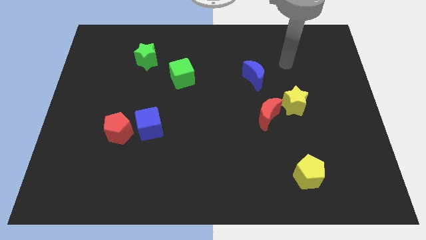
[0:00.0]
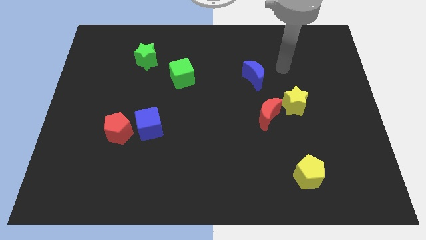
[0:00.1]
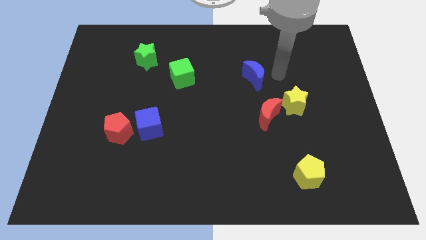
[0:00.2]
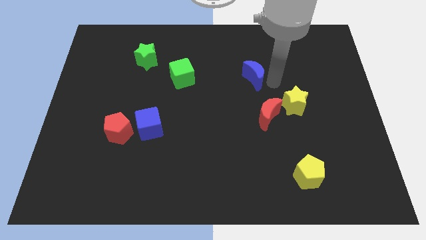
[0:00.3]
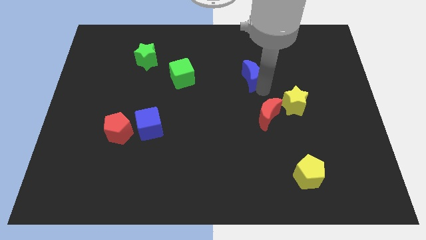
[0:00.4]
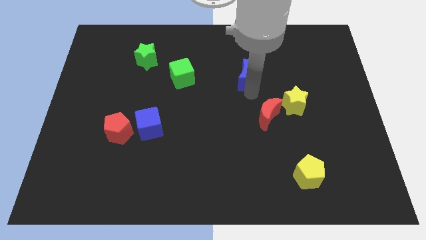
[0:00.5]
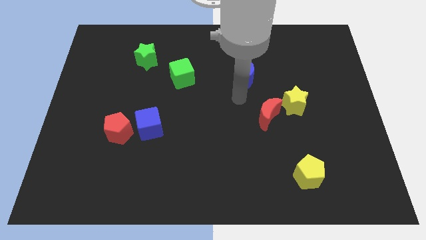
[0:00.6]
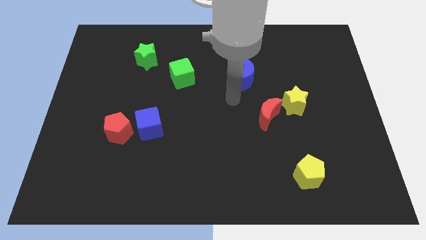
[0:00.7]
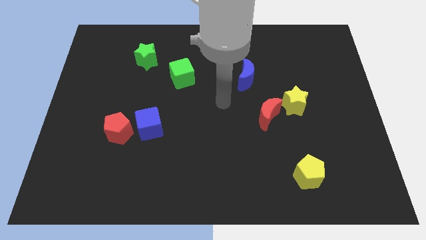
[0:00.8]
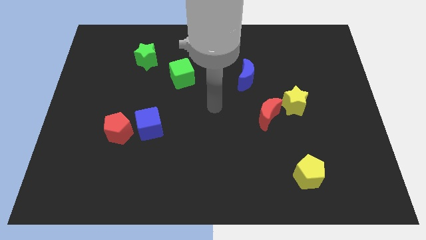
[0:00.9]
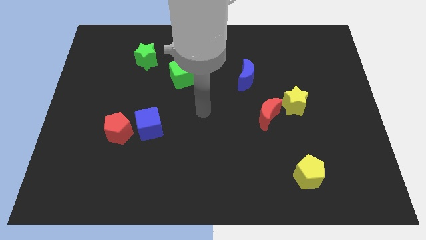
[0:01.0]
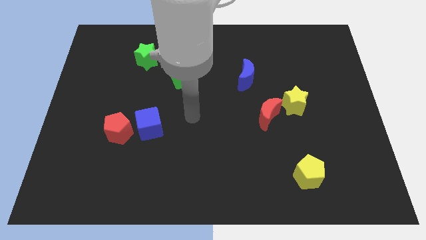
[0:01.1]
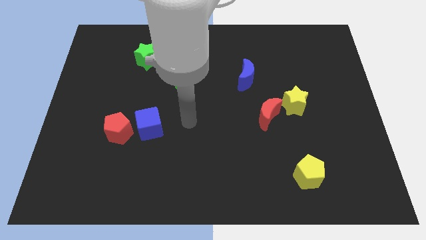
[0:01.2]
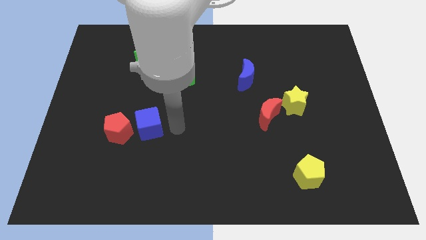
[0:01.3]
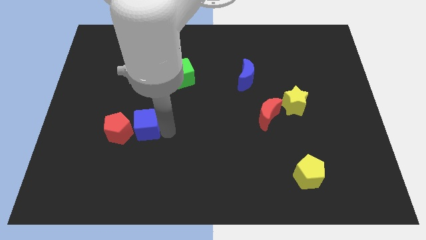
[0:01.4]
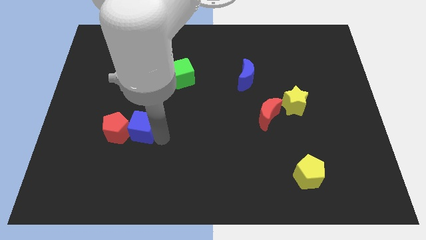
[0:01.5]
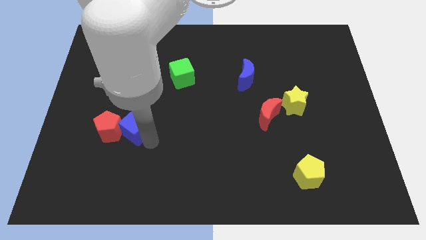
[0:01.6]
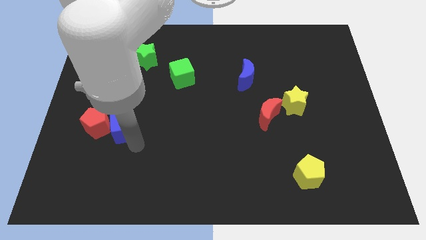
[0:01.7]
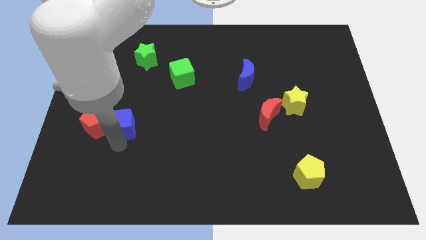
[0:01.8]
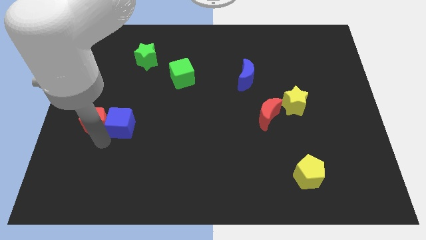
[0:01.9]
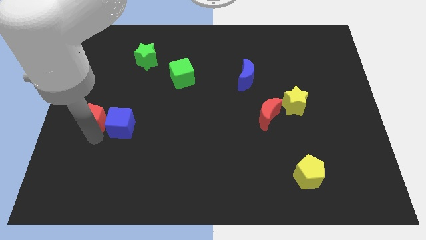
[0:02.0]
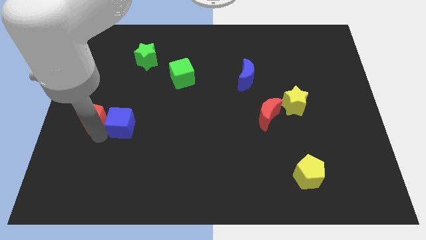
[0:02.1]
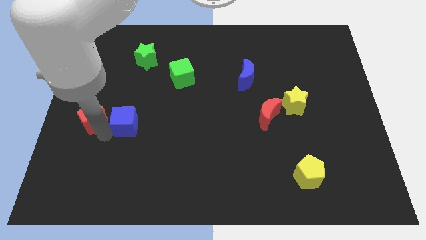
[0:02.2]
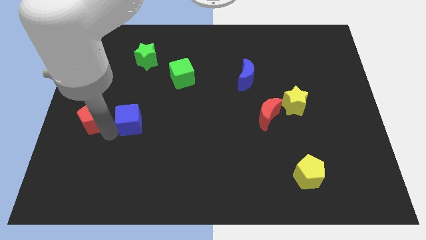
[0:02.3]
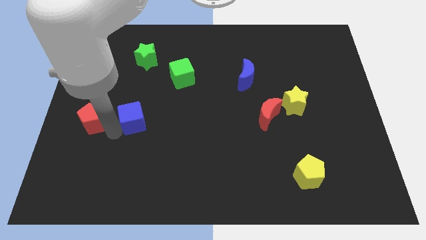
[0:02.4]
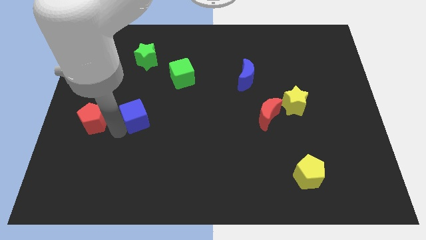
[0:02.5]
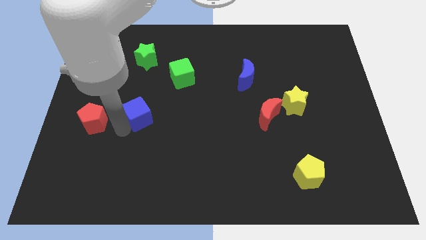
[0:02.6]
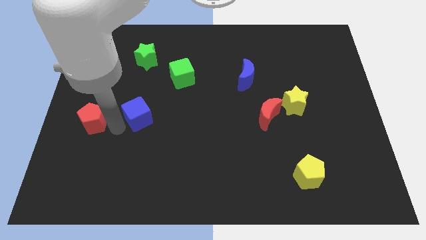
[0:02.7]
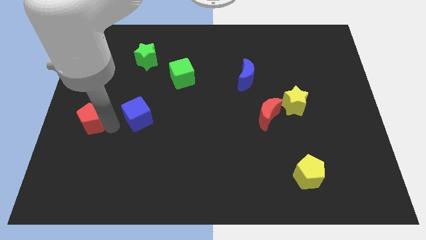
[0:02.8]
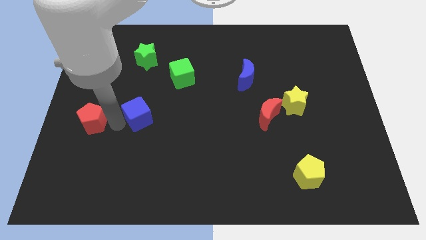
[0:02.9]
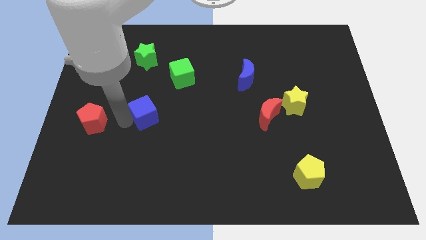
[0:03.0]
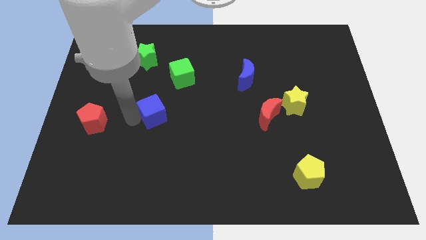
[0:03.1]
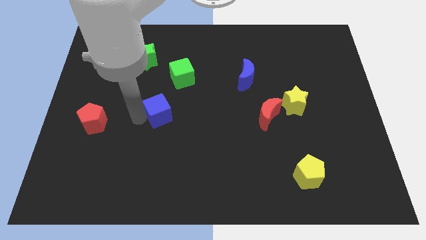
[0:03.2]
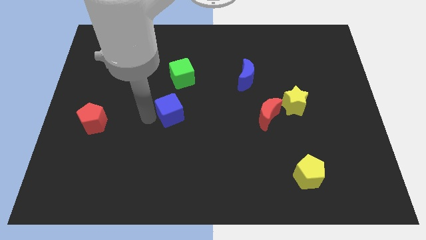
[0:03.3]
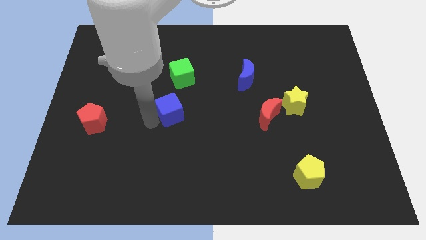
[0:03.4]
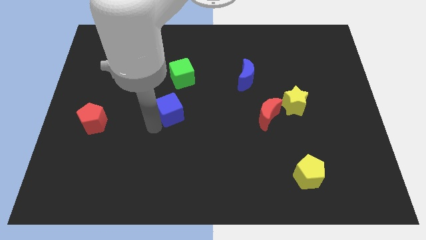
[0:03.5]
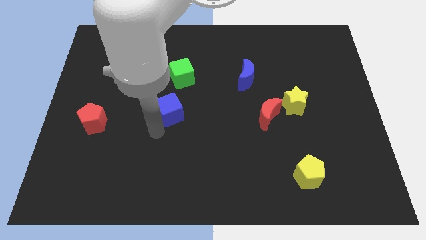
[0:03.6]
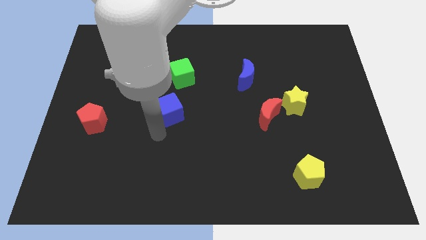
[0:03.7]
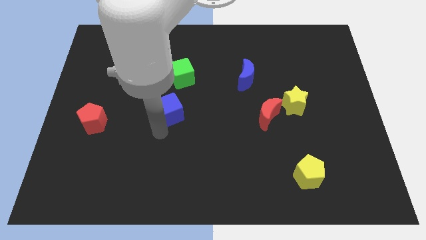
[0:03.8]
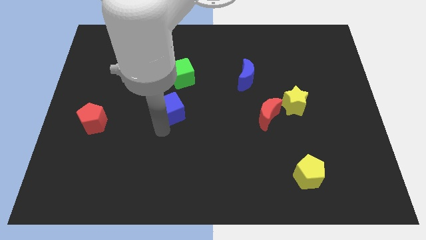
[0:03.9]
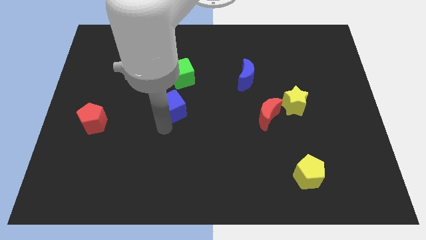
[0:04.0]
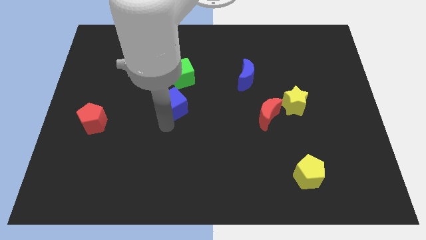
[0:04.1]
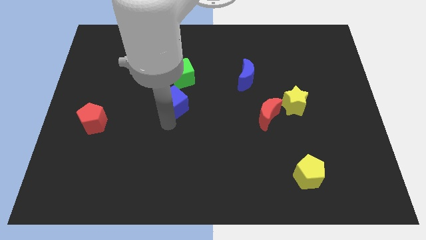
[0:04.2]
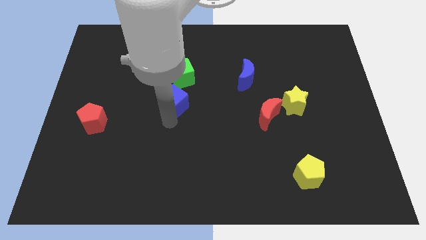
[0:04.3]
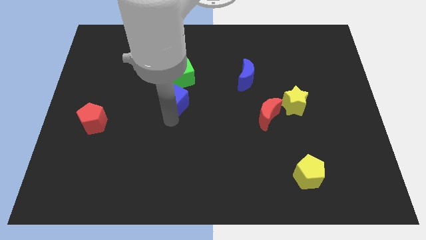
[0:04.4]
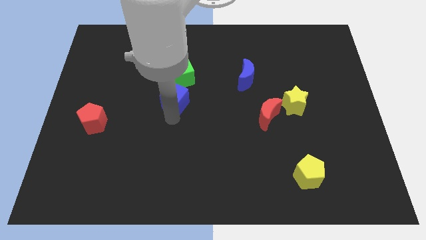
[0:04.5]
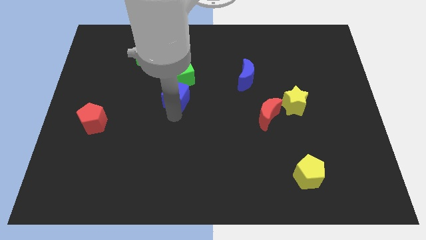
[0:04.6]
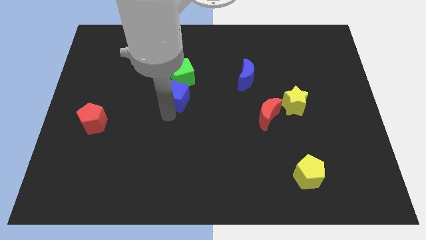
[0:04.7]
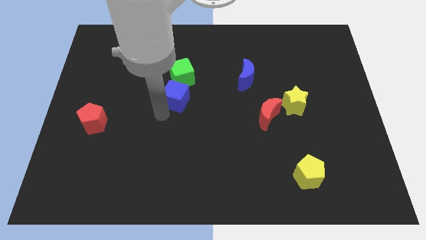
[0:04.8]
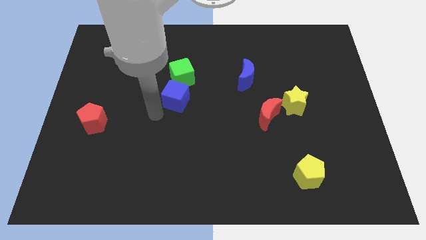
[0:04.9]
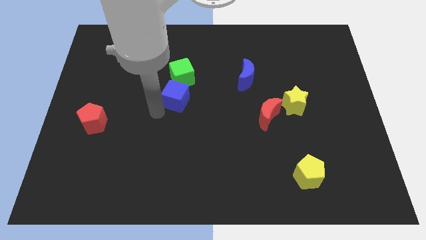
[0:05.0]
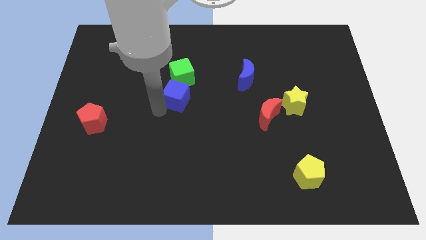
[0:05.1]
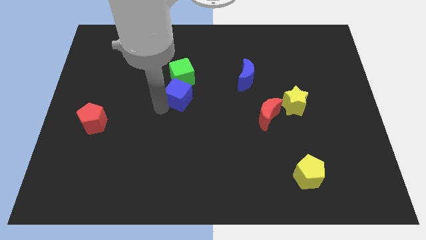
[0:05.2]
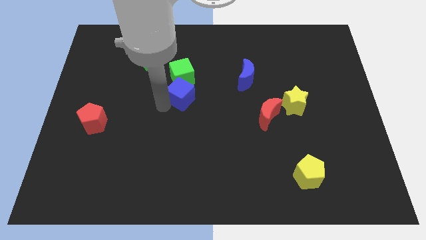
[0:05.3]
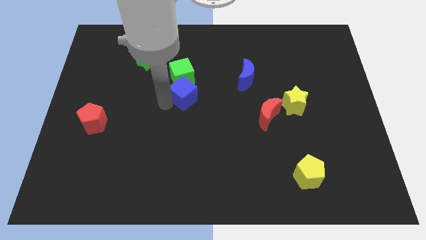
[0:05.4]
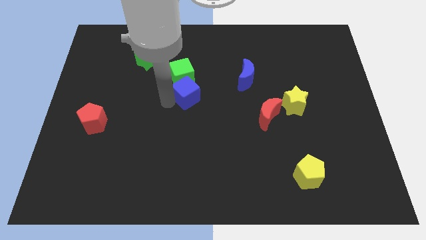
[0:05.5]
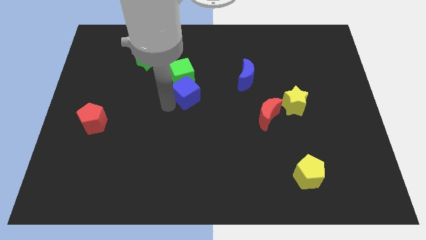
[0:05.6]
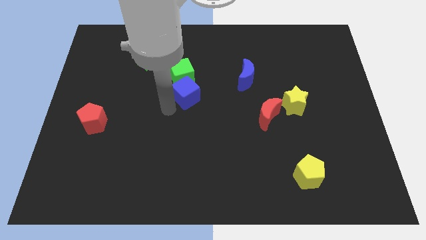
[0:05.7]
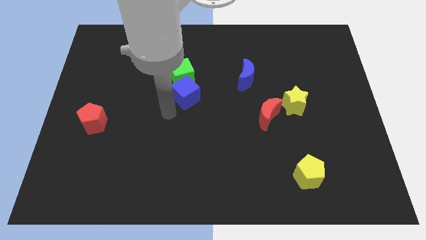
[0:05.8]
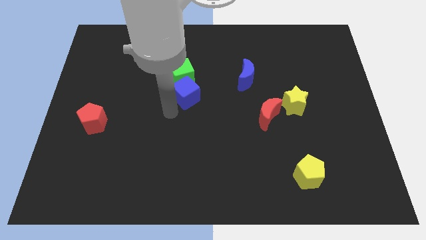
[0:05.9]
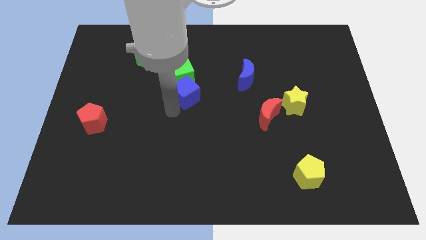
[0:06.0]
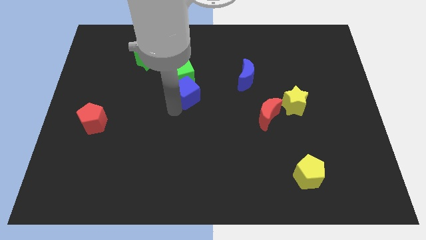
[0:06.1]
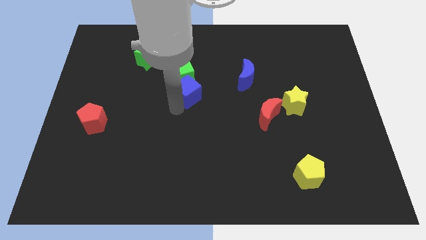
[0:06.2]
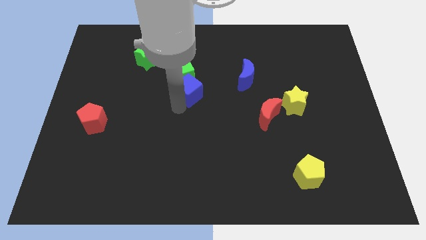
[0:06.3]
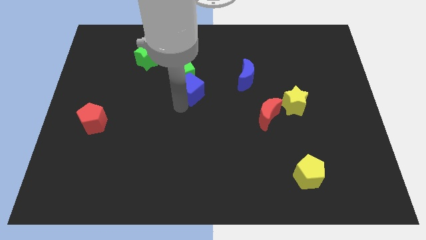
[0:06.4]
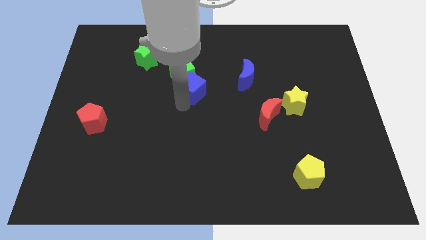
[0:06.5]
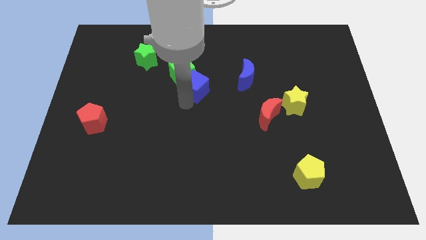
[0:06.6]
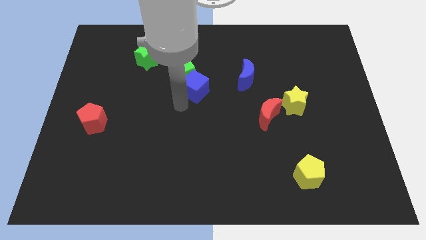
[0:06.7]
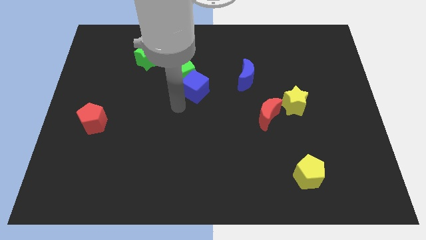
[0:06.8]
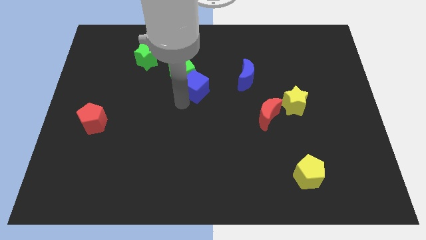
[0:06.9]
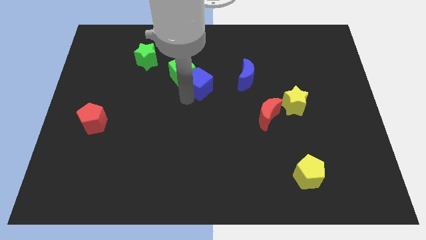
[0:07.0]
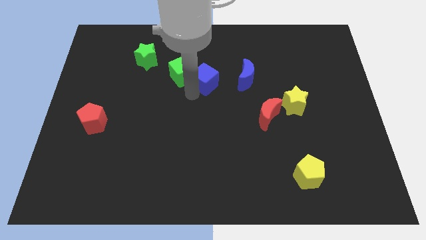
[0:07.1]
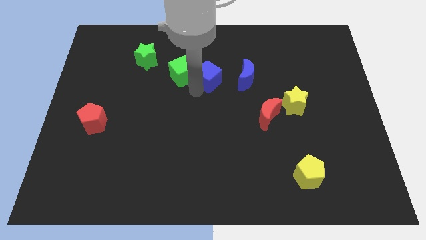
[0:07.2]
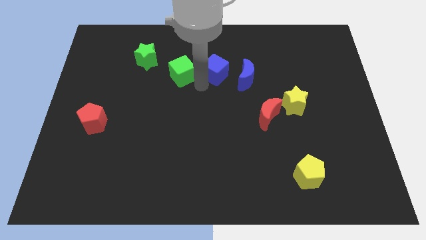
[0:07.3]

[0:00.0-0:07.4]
move the blue cube up and to the right

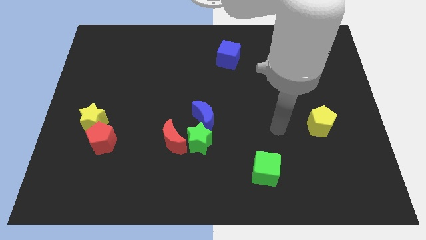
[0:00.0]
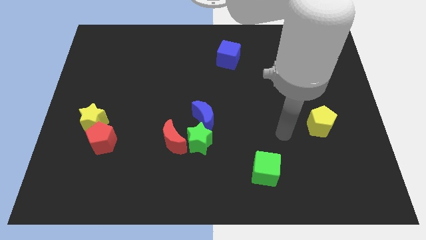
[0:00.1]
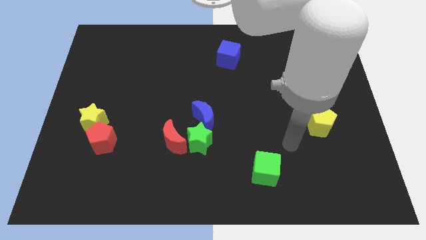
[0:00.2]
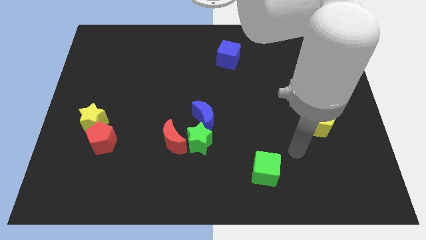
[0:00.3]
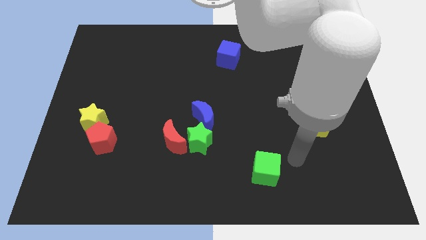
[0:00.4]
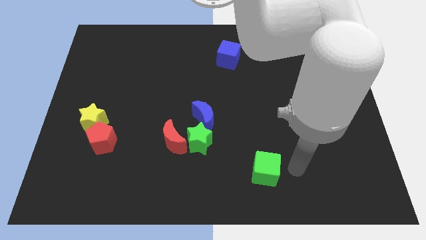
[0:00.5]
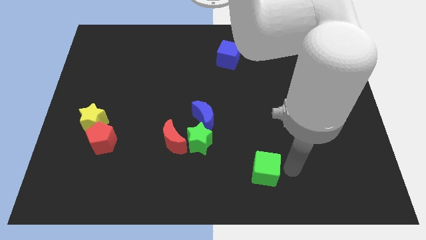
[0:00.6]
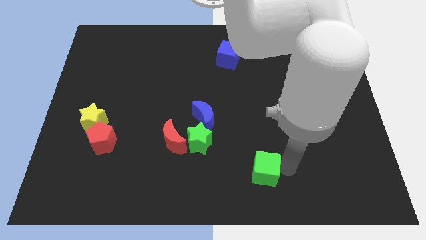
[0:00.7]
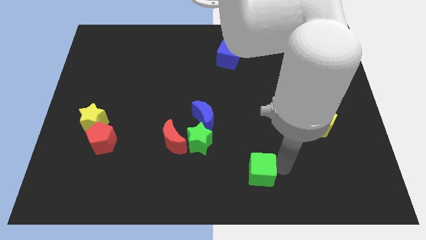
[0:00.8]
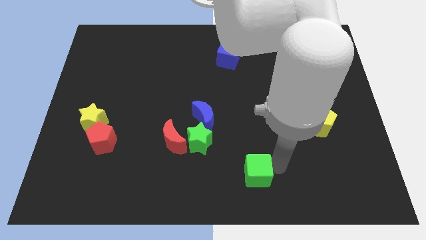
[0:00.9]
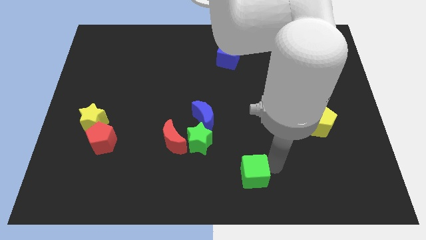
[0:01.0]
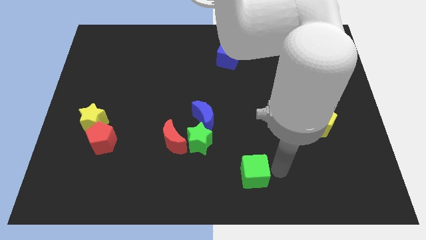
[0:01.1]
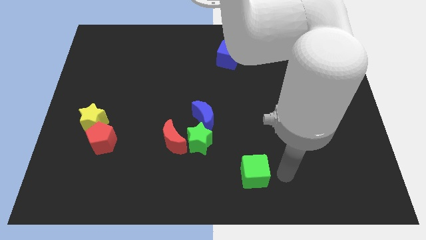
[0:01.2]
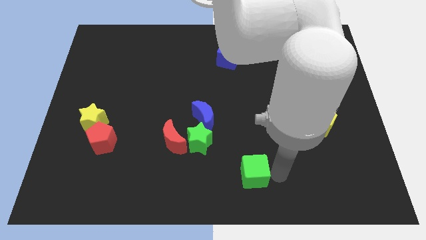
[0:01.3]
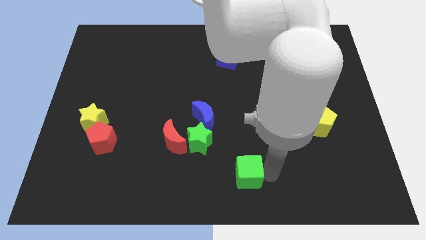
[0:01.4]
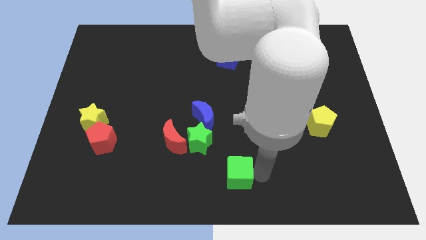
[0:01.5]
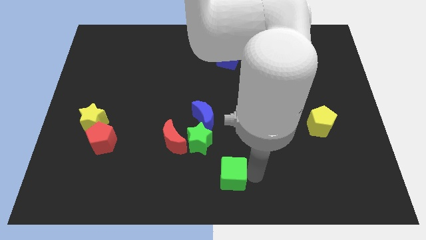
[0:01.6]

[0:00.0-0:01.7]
move the green cube to the left somewhat
